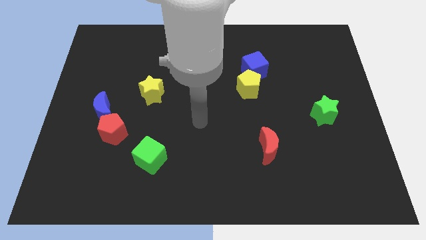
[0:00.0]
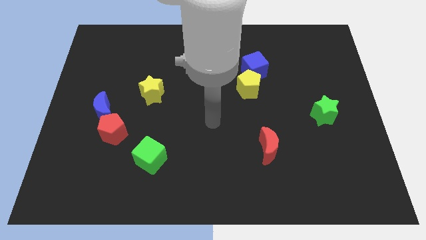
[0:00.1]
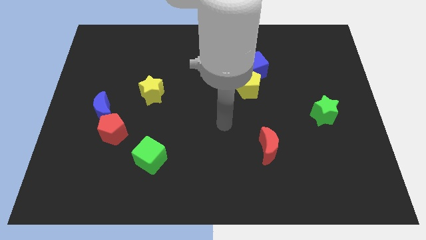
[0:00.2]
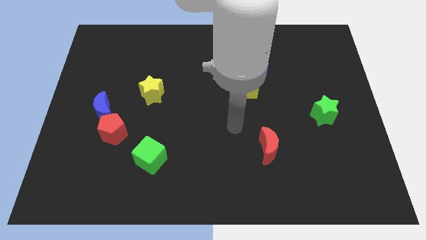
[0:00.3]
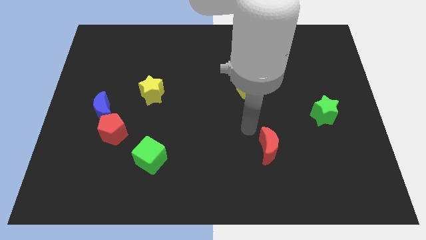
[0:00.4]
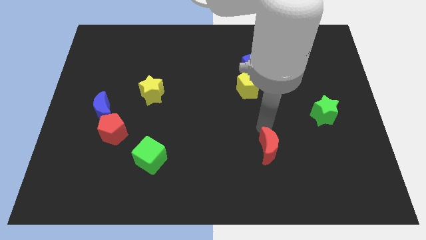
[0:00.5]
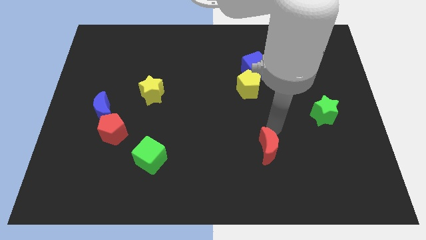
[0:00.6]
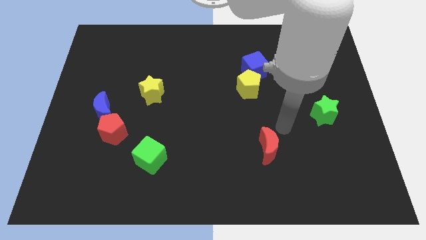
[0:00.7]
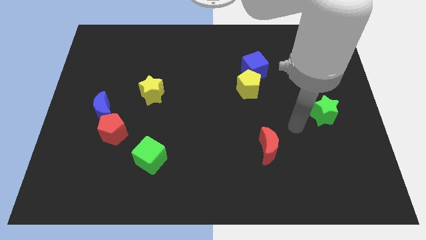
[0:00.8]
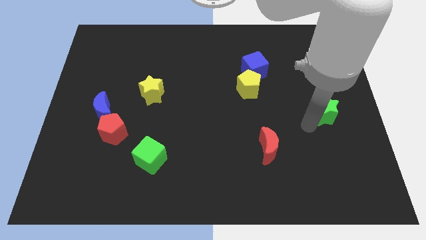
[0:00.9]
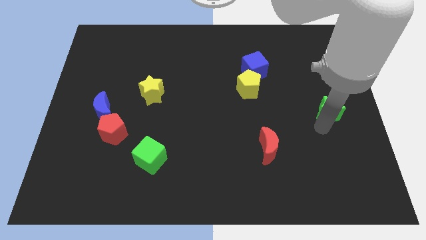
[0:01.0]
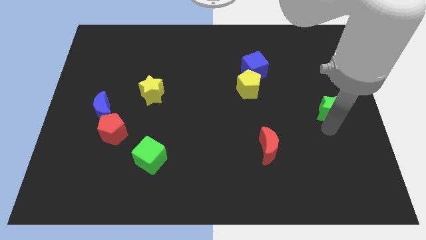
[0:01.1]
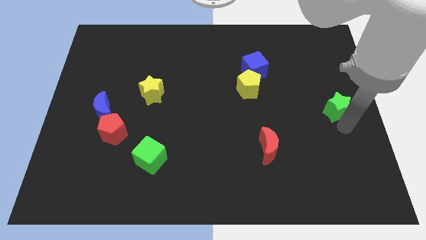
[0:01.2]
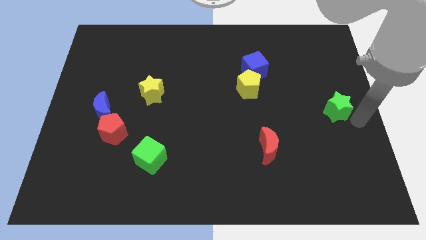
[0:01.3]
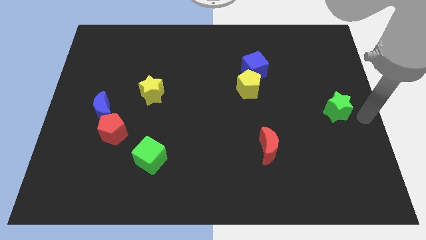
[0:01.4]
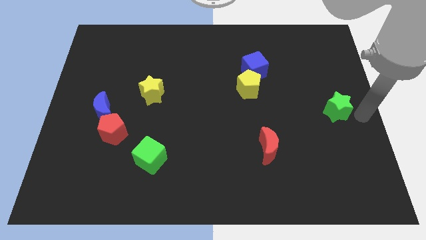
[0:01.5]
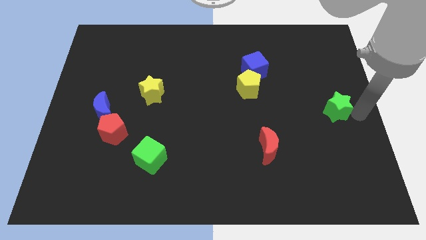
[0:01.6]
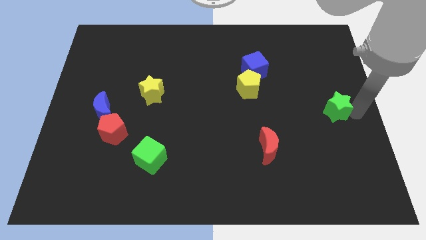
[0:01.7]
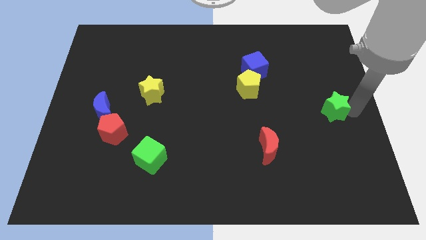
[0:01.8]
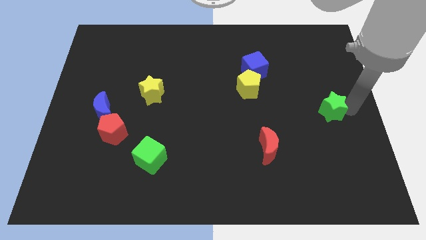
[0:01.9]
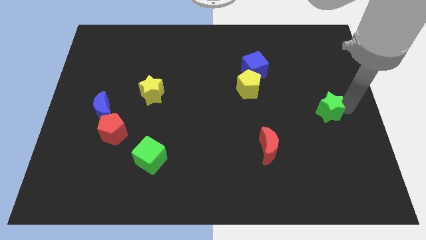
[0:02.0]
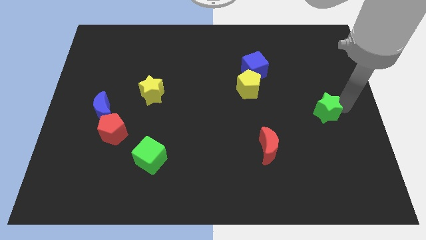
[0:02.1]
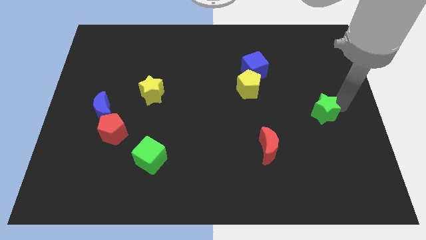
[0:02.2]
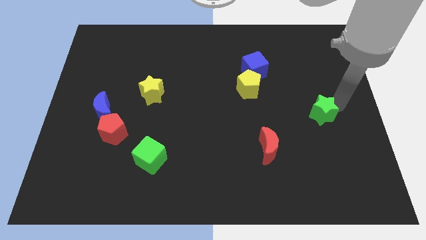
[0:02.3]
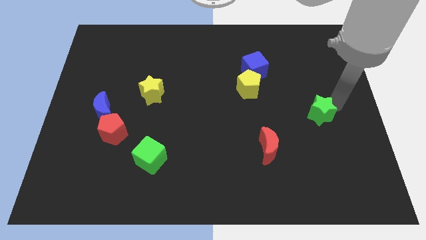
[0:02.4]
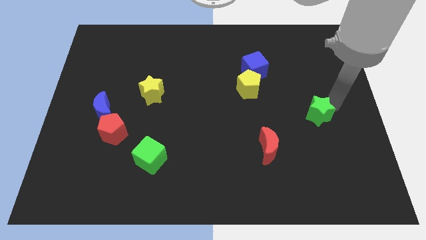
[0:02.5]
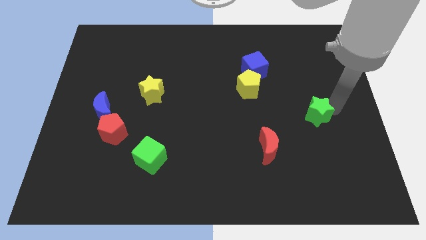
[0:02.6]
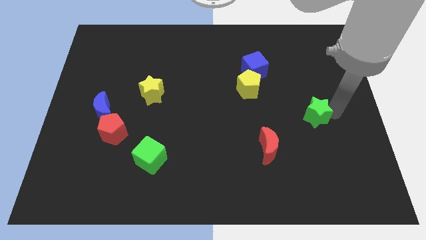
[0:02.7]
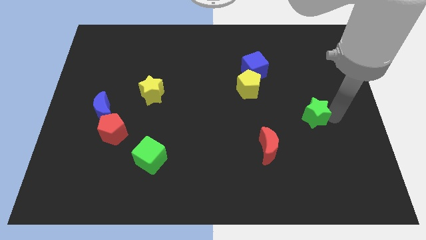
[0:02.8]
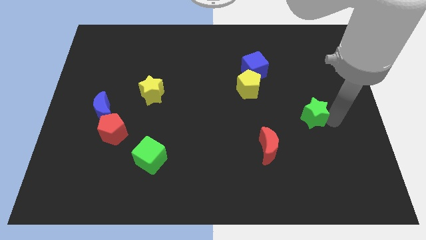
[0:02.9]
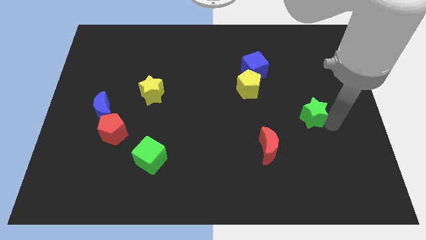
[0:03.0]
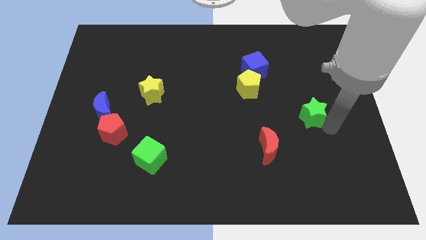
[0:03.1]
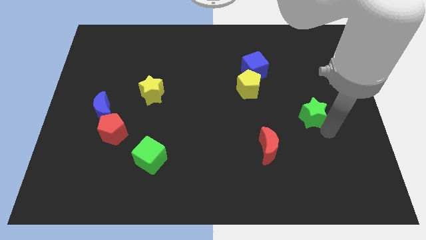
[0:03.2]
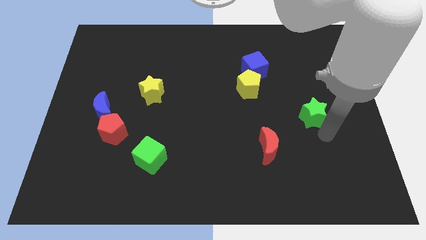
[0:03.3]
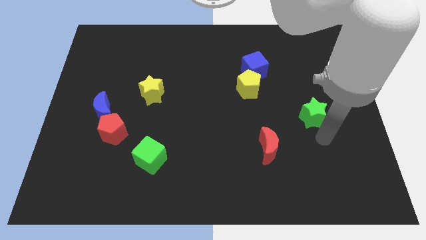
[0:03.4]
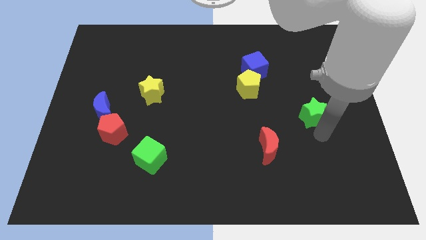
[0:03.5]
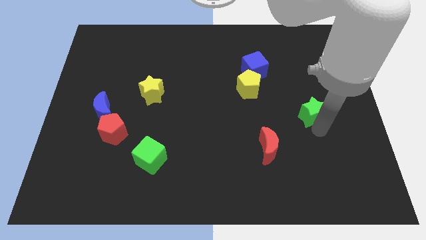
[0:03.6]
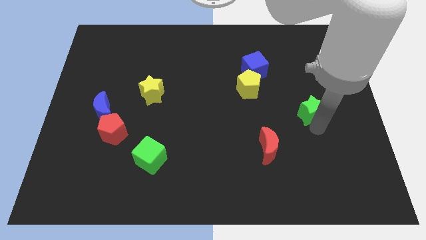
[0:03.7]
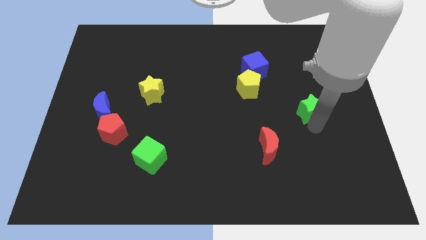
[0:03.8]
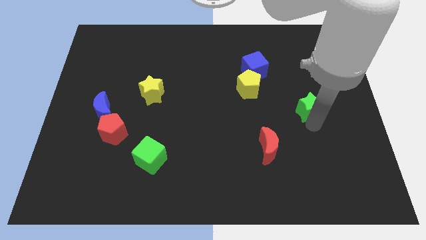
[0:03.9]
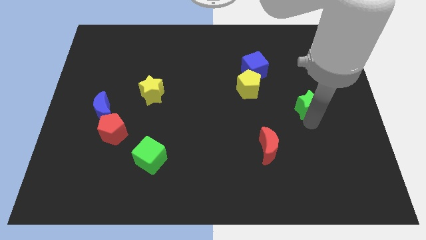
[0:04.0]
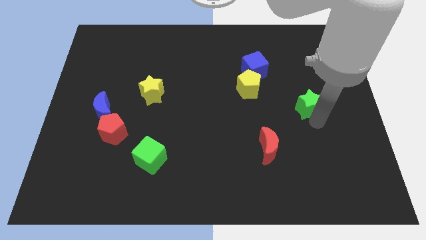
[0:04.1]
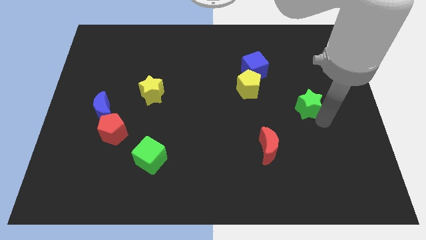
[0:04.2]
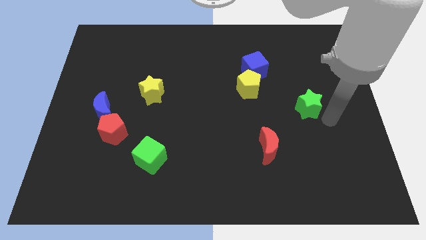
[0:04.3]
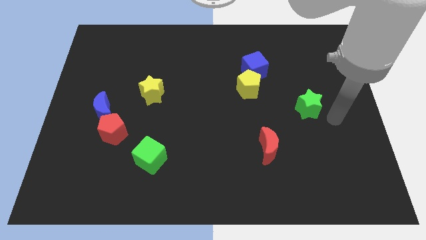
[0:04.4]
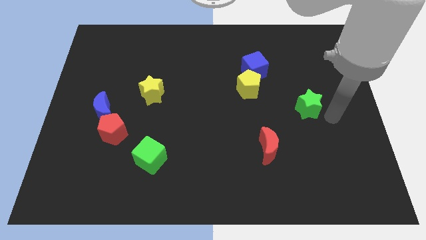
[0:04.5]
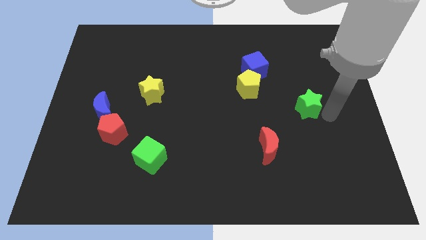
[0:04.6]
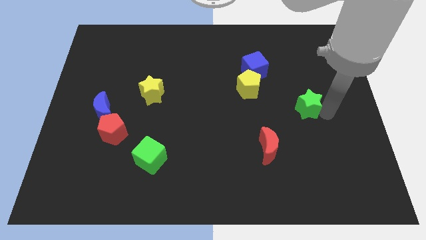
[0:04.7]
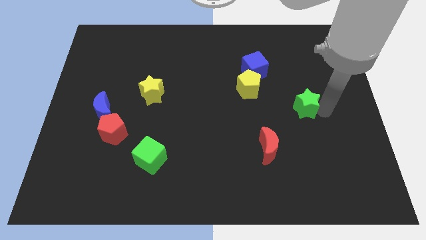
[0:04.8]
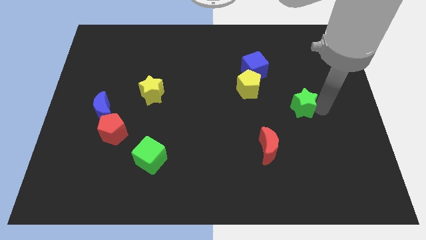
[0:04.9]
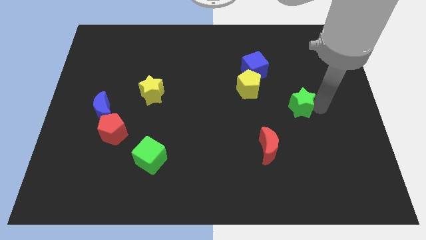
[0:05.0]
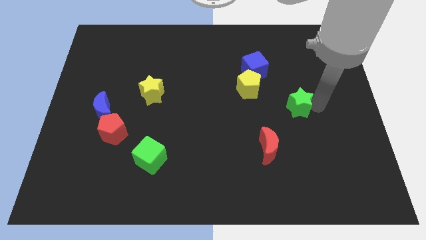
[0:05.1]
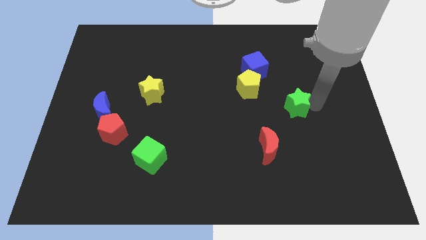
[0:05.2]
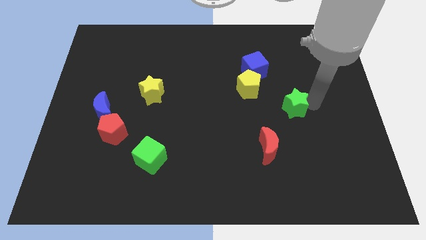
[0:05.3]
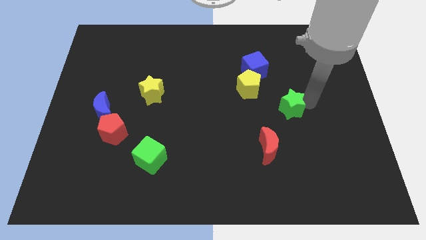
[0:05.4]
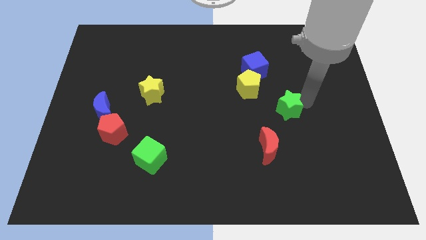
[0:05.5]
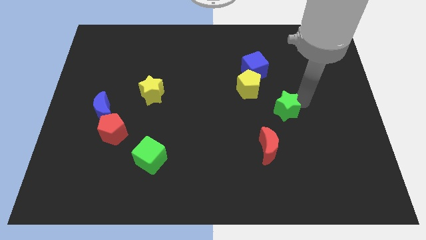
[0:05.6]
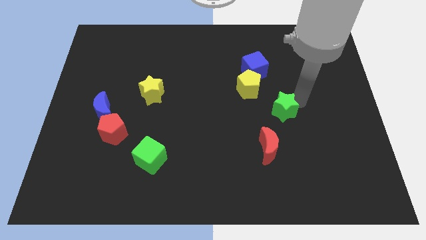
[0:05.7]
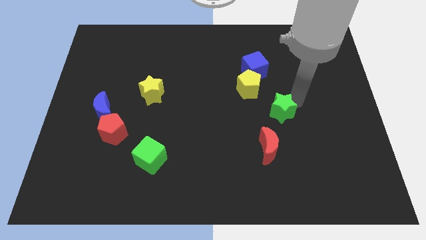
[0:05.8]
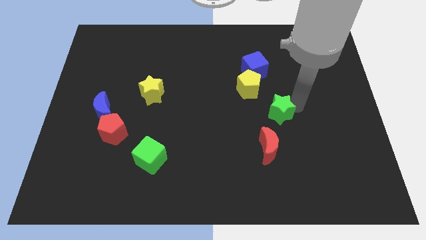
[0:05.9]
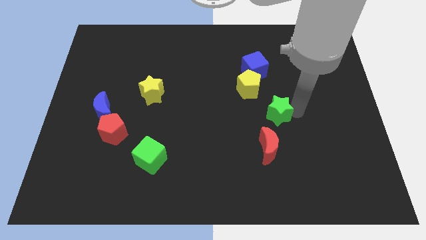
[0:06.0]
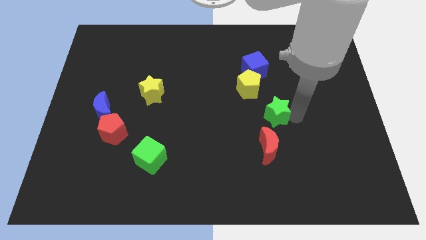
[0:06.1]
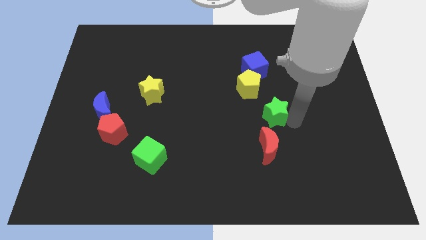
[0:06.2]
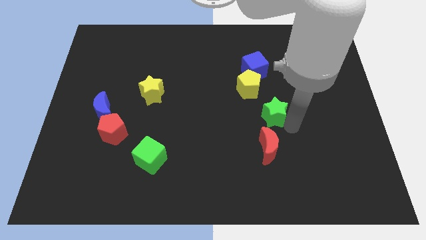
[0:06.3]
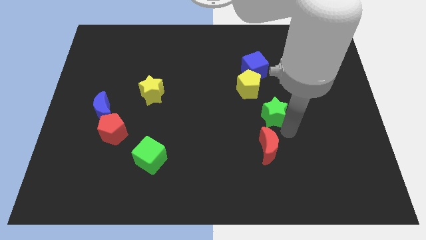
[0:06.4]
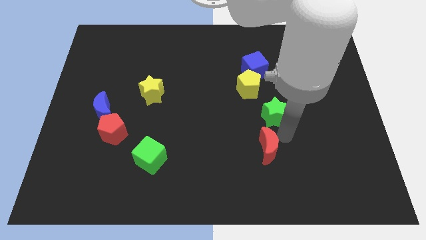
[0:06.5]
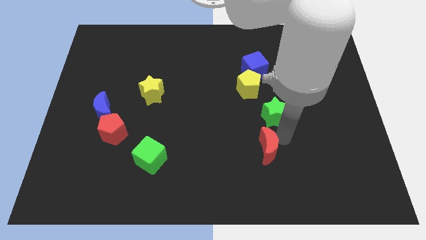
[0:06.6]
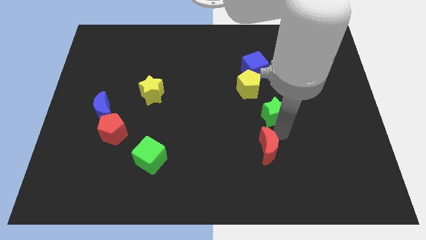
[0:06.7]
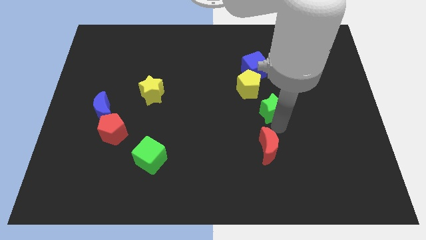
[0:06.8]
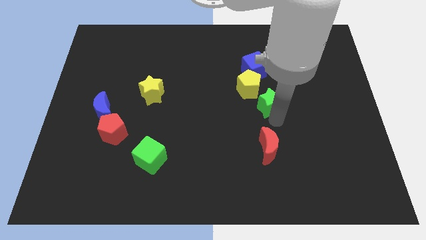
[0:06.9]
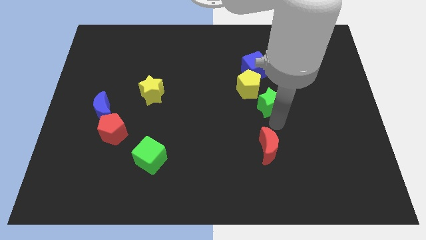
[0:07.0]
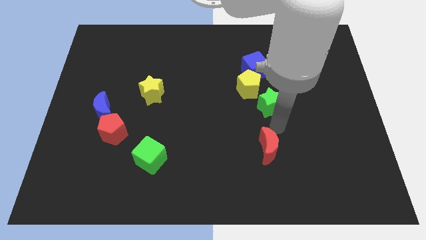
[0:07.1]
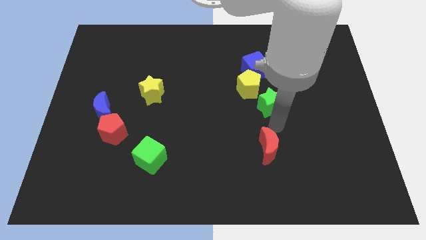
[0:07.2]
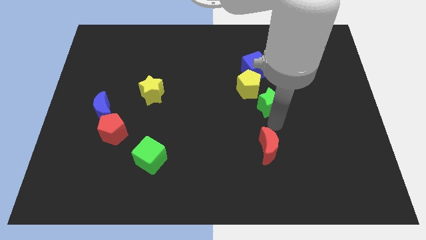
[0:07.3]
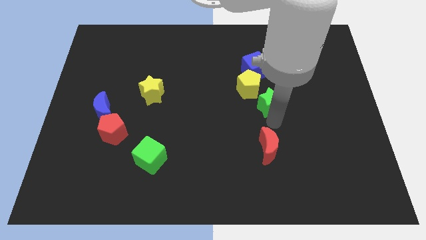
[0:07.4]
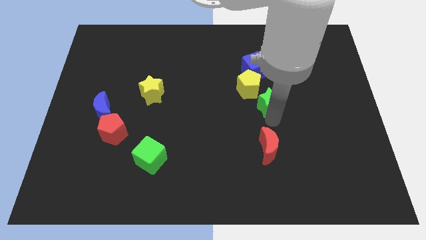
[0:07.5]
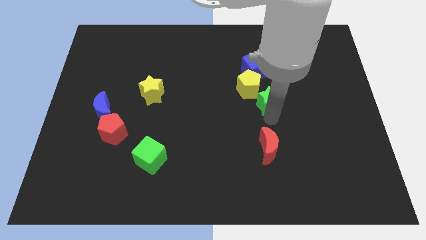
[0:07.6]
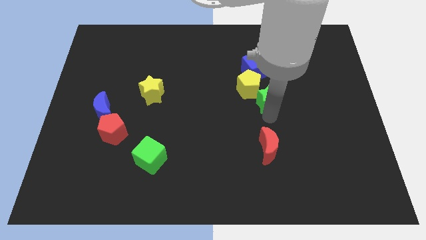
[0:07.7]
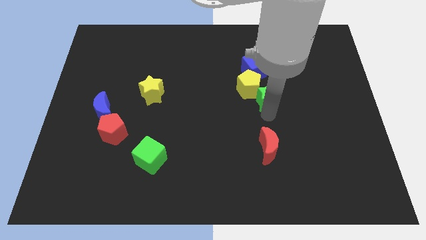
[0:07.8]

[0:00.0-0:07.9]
slide the green star close to the yellow pentagon
